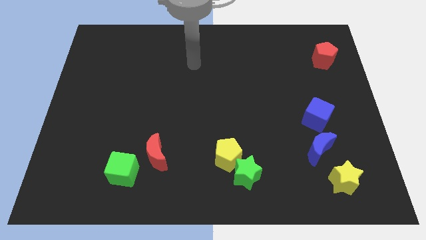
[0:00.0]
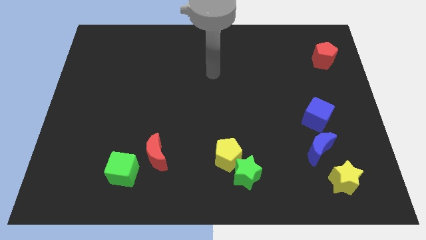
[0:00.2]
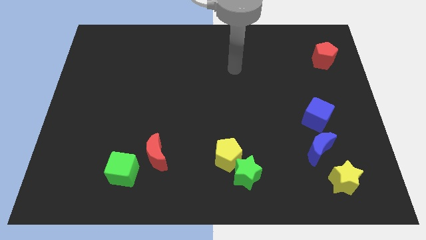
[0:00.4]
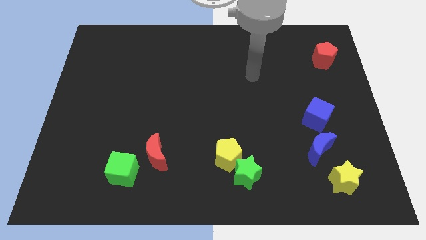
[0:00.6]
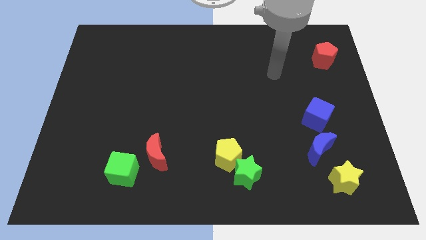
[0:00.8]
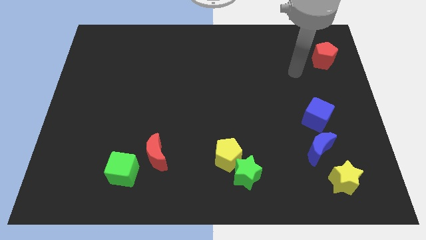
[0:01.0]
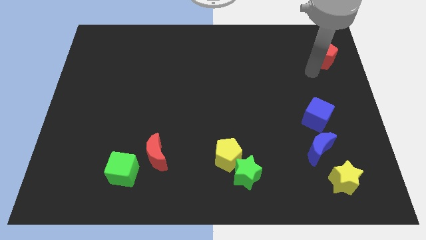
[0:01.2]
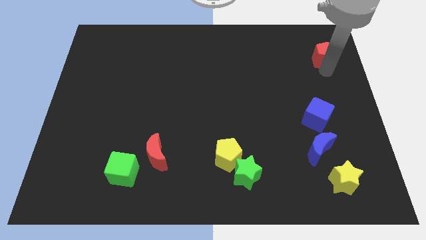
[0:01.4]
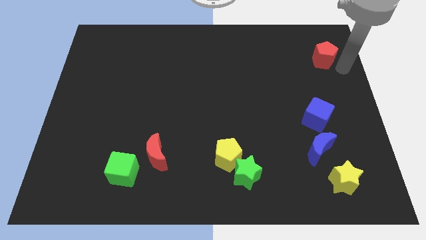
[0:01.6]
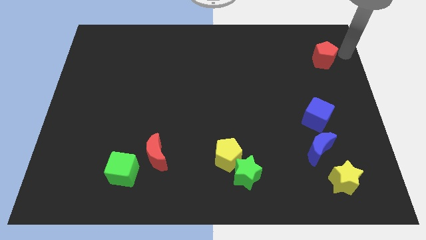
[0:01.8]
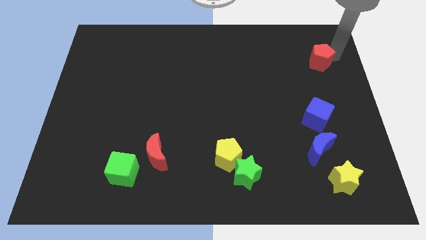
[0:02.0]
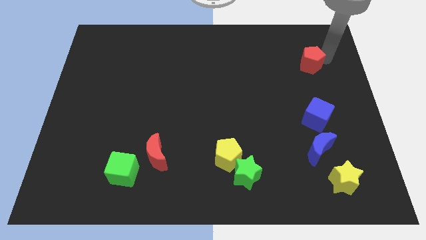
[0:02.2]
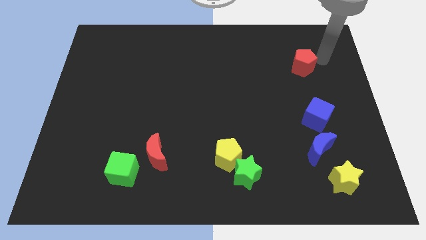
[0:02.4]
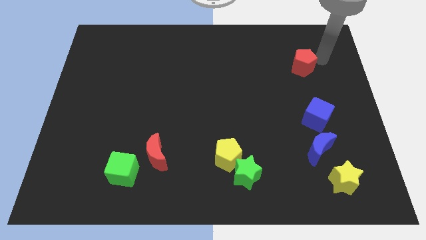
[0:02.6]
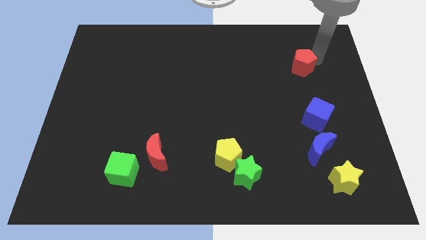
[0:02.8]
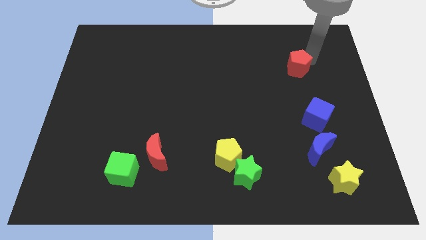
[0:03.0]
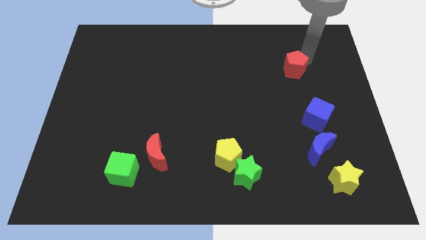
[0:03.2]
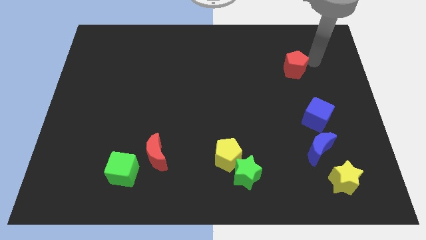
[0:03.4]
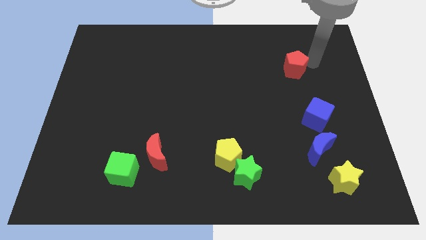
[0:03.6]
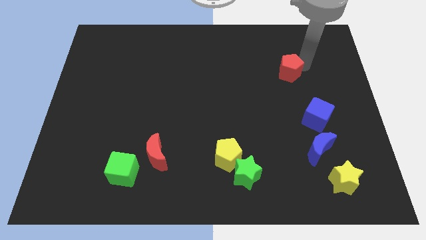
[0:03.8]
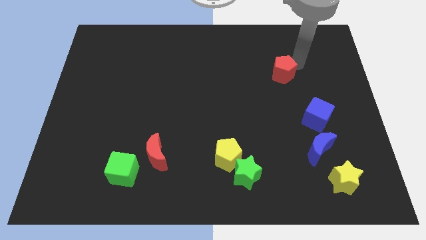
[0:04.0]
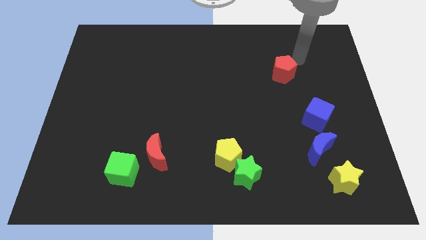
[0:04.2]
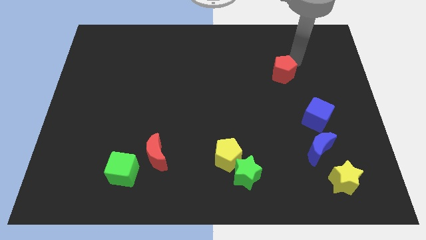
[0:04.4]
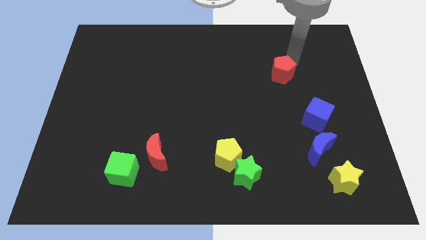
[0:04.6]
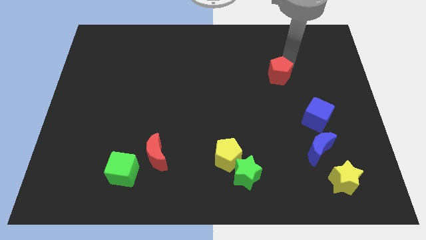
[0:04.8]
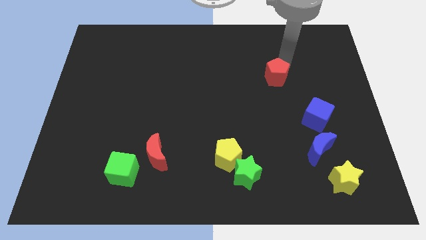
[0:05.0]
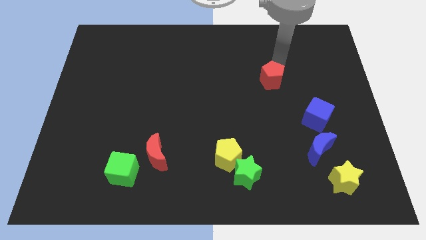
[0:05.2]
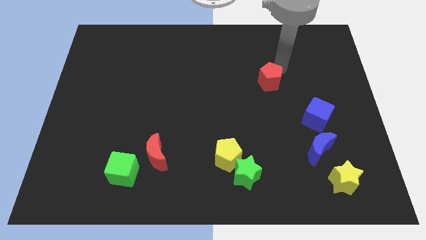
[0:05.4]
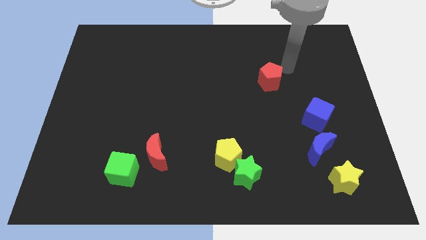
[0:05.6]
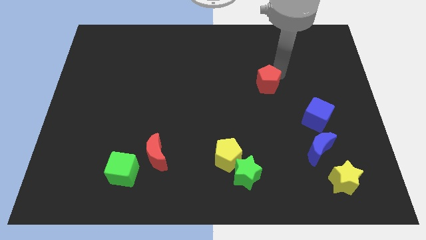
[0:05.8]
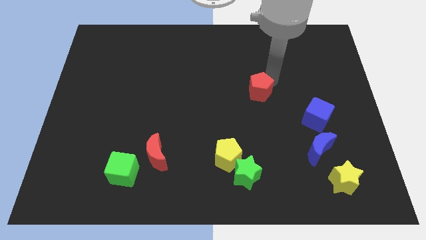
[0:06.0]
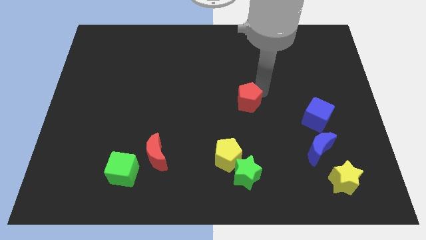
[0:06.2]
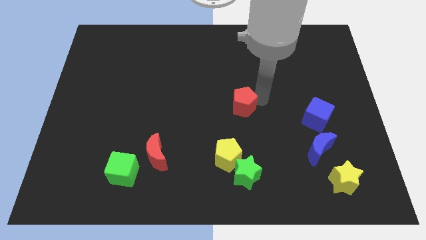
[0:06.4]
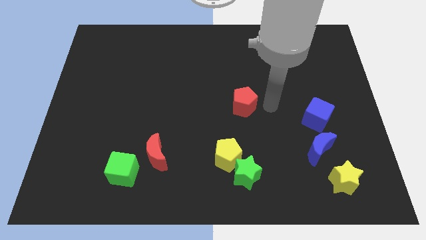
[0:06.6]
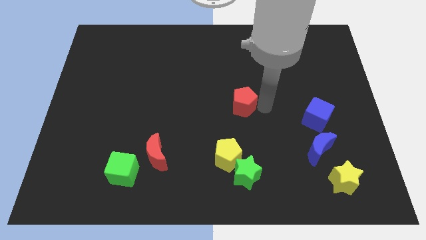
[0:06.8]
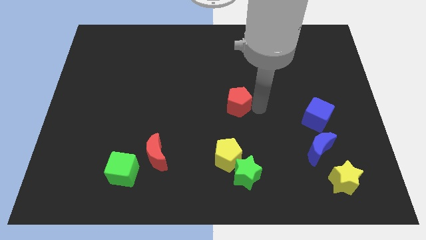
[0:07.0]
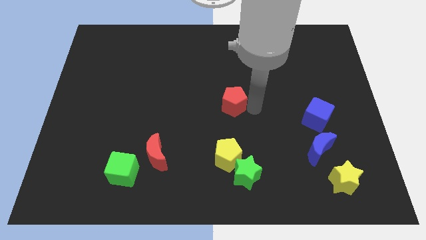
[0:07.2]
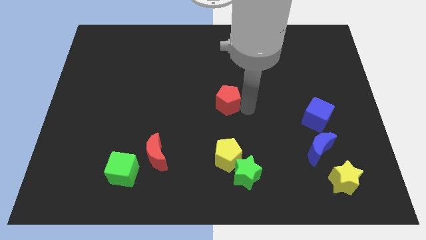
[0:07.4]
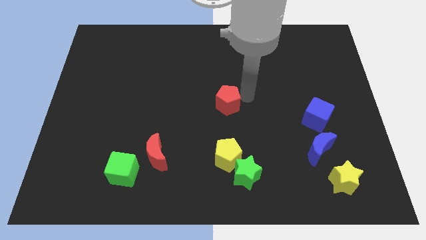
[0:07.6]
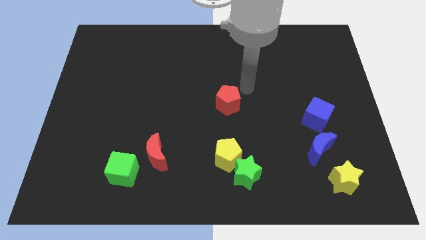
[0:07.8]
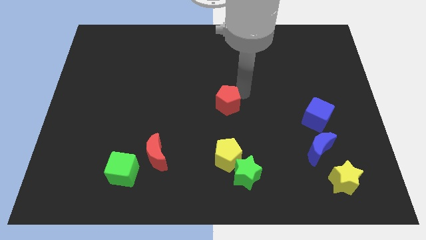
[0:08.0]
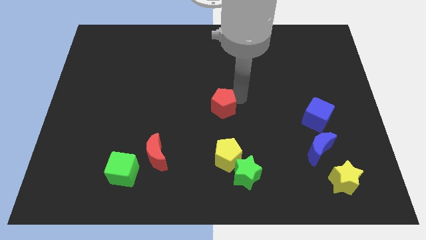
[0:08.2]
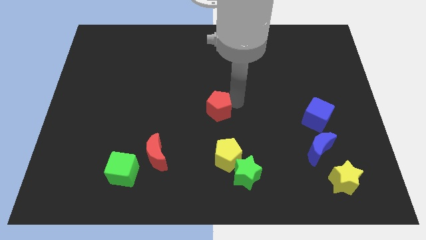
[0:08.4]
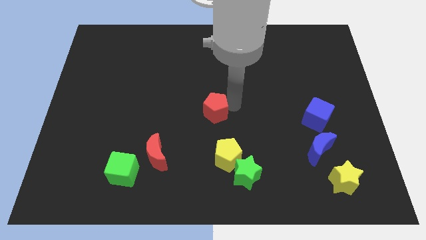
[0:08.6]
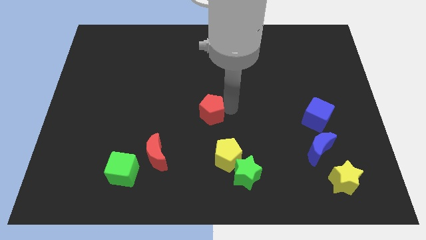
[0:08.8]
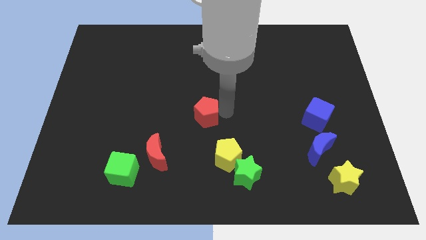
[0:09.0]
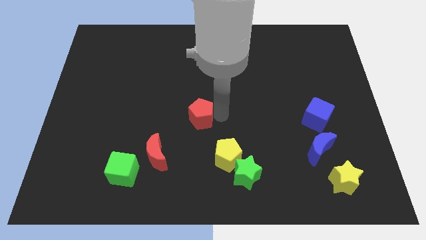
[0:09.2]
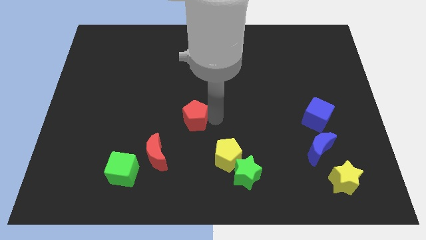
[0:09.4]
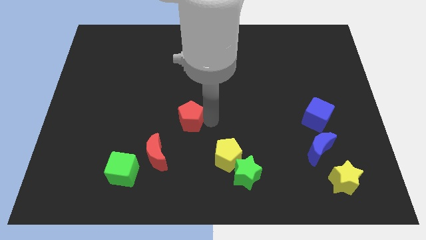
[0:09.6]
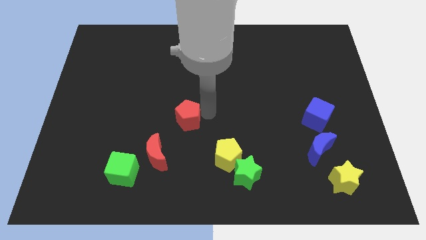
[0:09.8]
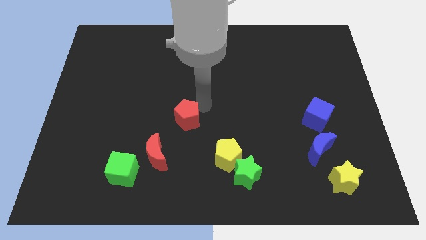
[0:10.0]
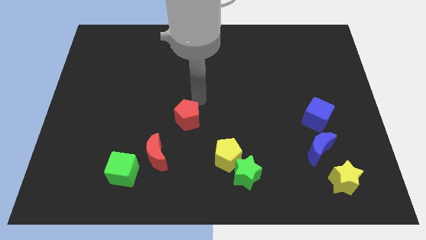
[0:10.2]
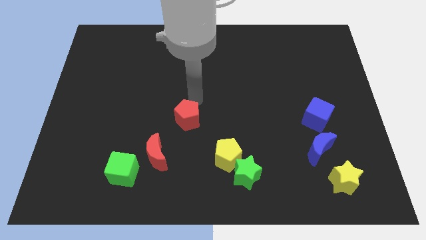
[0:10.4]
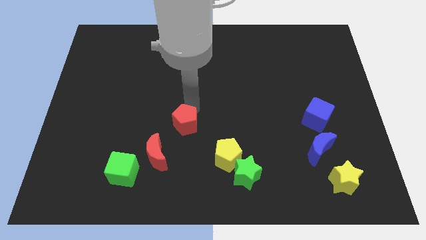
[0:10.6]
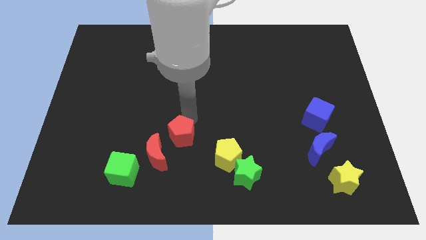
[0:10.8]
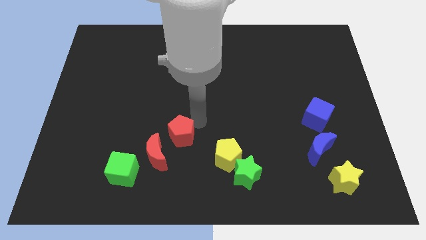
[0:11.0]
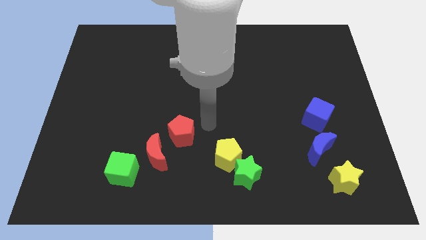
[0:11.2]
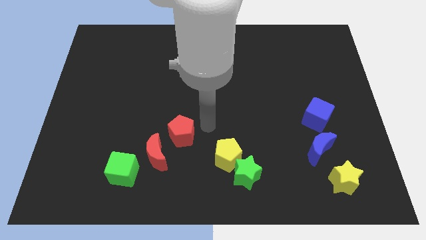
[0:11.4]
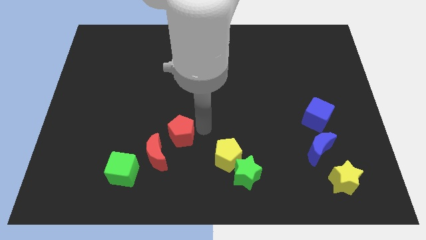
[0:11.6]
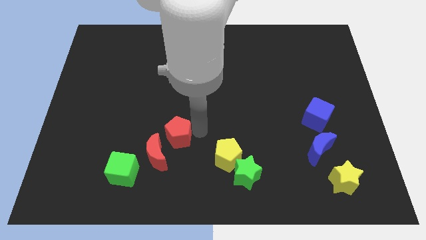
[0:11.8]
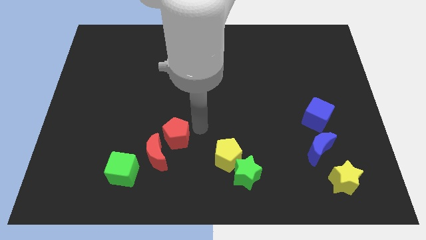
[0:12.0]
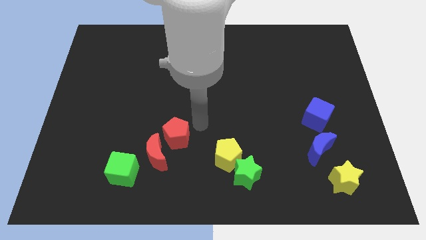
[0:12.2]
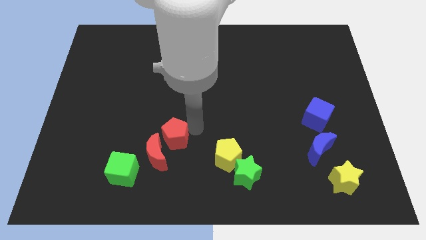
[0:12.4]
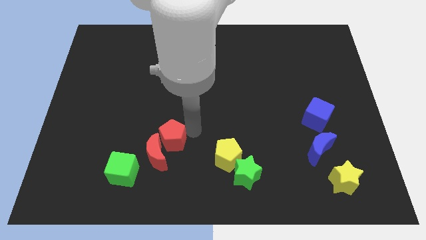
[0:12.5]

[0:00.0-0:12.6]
push the red pentagon diagonally up and to the right of the green cube
